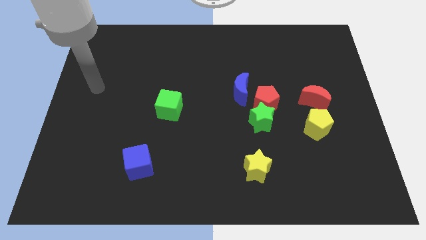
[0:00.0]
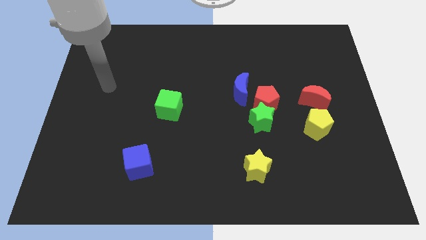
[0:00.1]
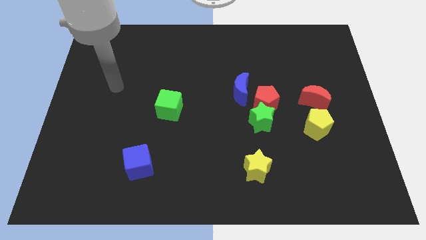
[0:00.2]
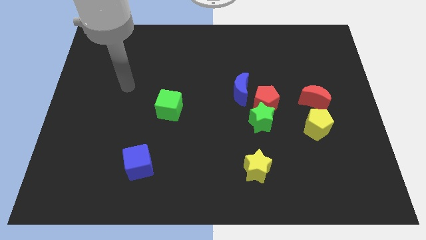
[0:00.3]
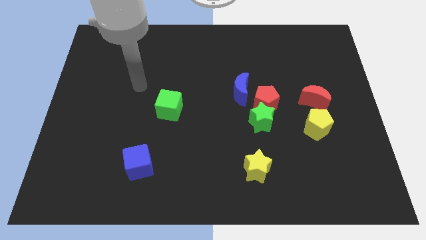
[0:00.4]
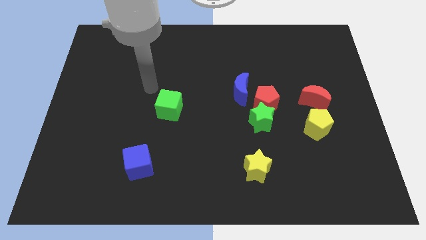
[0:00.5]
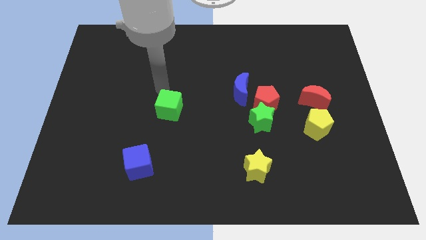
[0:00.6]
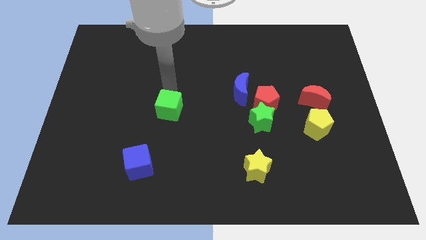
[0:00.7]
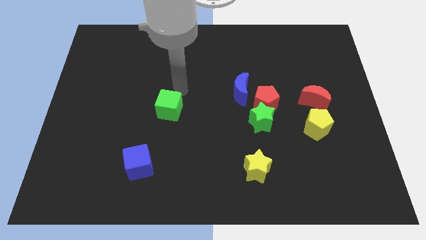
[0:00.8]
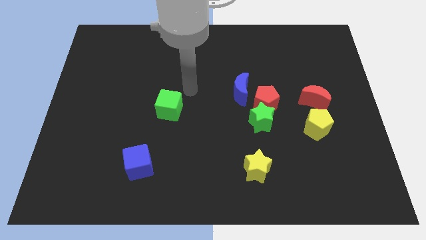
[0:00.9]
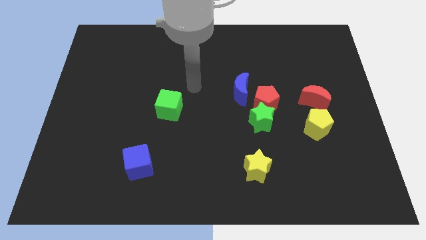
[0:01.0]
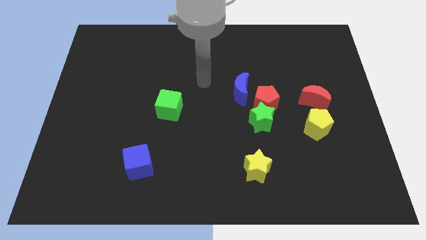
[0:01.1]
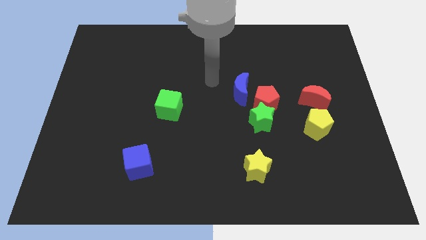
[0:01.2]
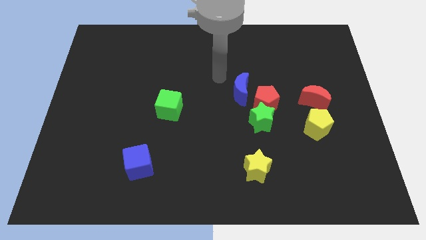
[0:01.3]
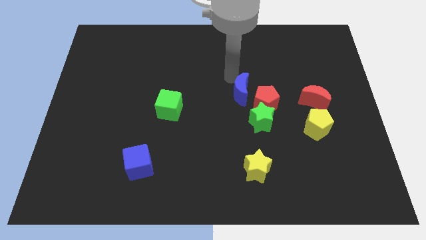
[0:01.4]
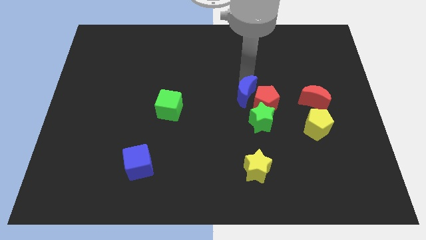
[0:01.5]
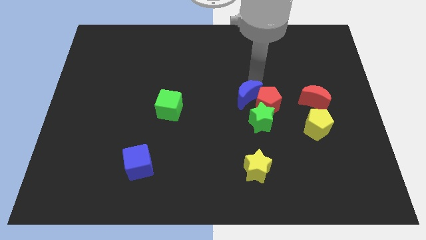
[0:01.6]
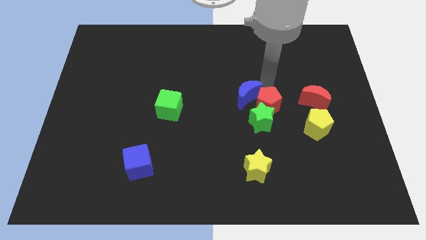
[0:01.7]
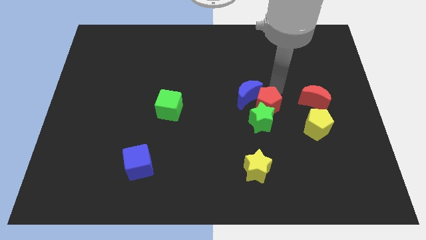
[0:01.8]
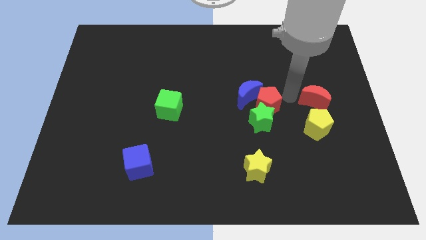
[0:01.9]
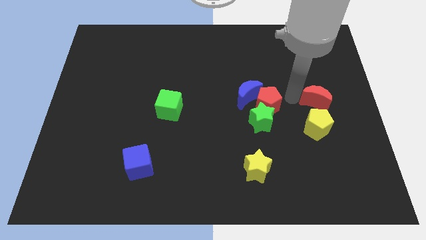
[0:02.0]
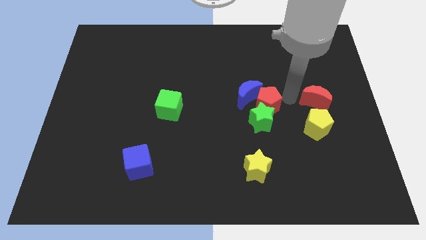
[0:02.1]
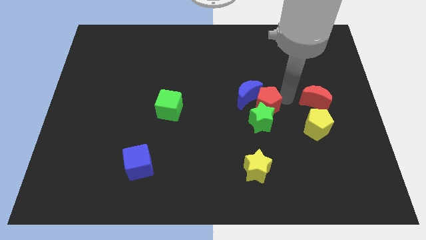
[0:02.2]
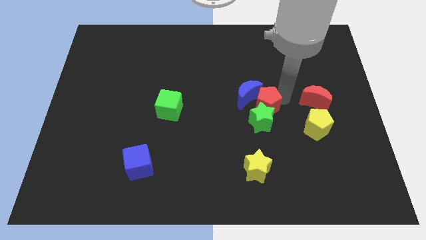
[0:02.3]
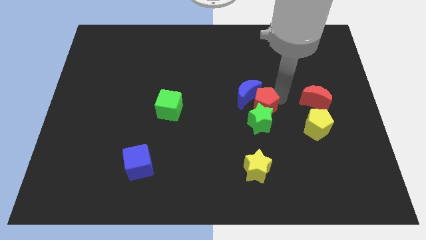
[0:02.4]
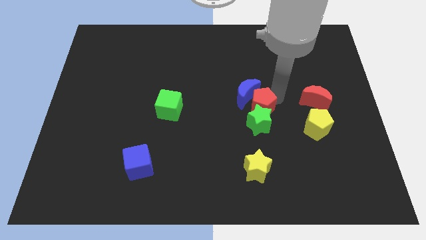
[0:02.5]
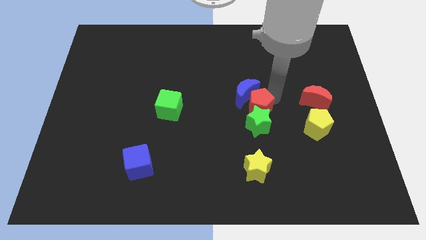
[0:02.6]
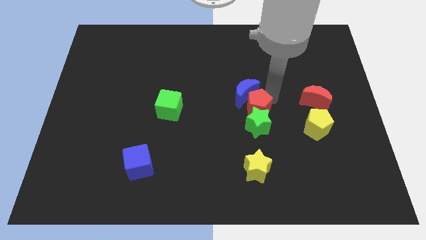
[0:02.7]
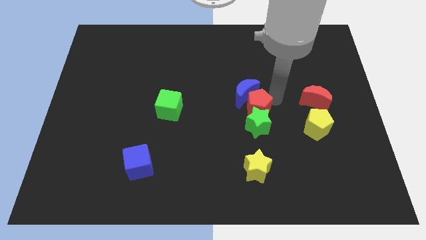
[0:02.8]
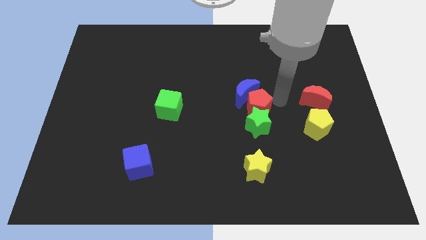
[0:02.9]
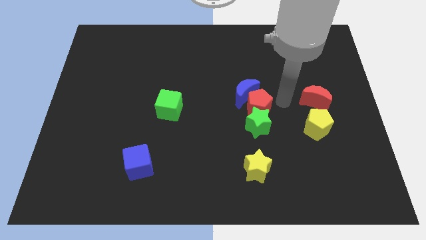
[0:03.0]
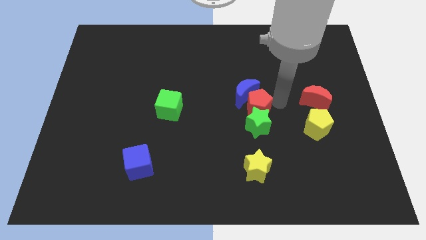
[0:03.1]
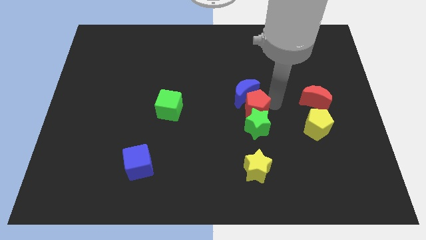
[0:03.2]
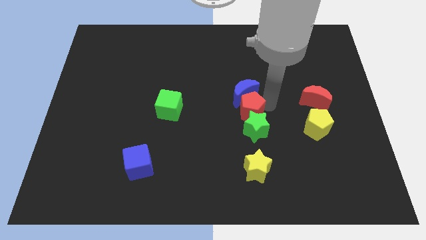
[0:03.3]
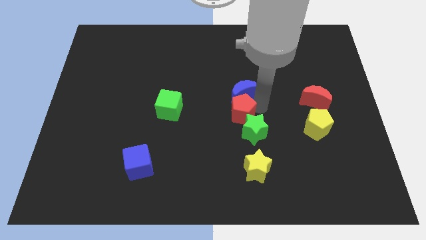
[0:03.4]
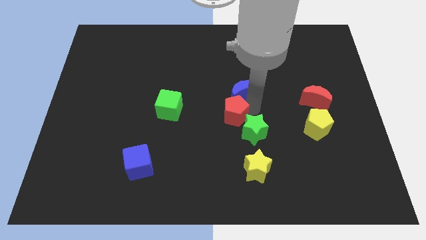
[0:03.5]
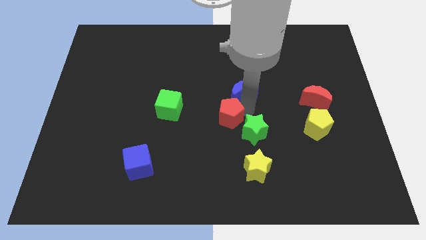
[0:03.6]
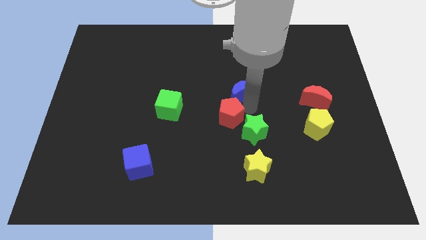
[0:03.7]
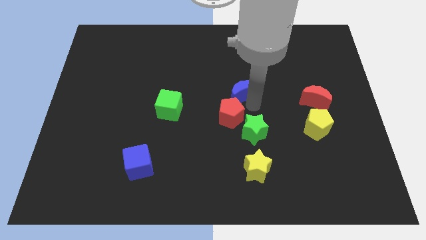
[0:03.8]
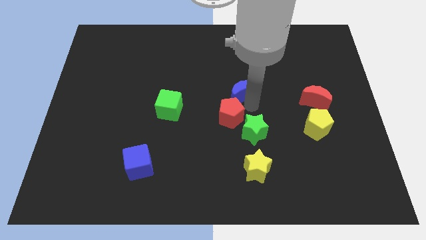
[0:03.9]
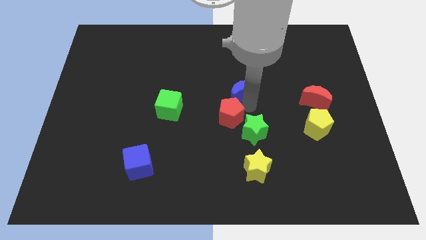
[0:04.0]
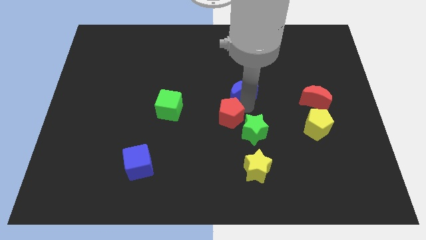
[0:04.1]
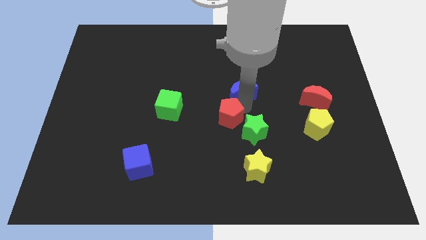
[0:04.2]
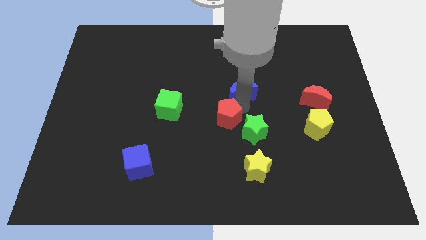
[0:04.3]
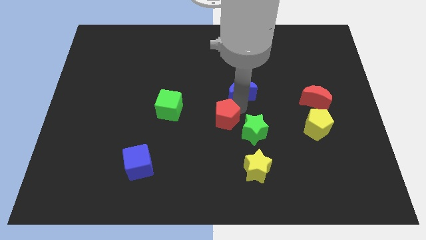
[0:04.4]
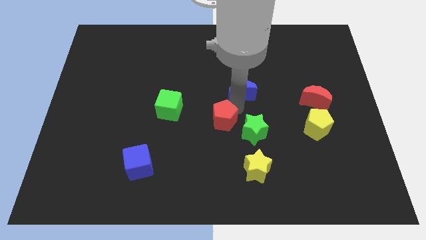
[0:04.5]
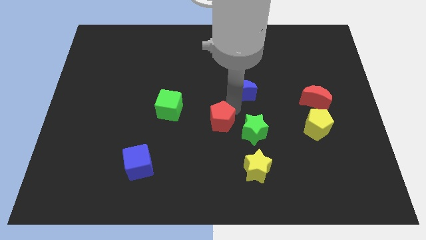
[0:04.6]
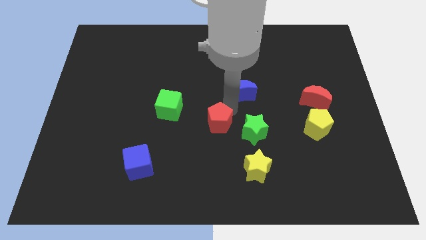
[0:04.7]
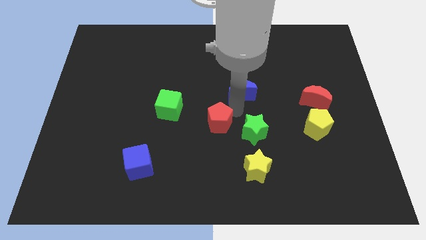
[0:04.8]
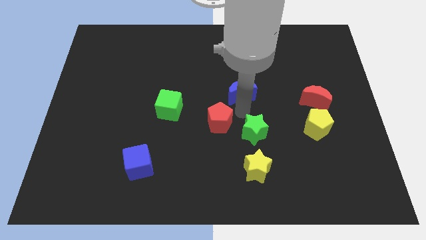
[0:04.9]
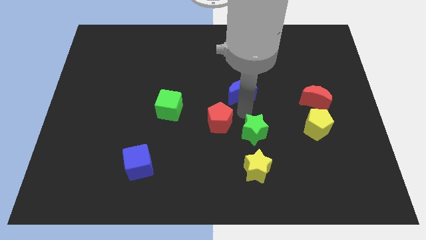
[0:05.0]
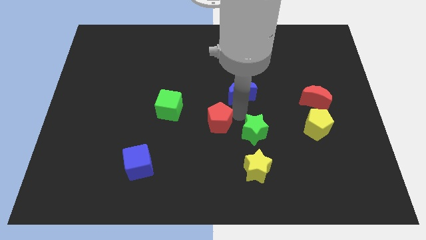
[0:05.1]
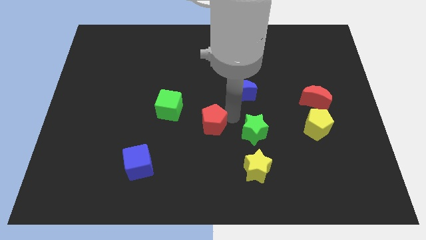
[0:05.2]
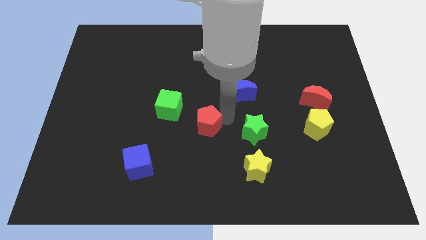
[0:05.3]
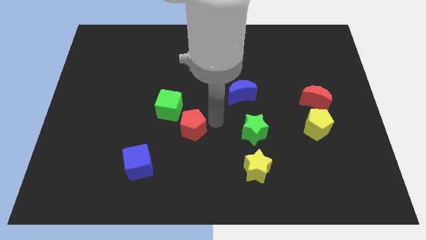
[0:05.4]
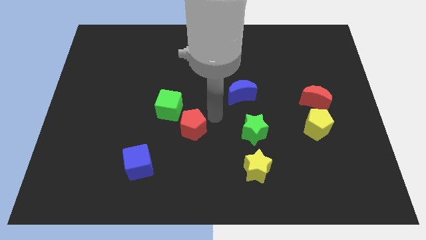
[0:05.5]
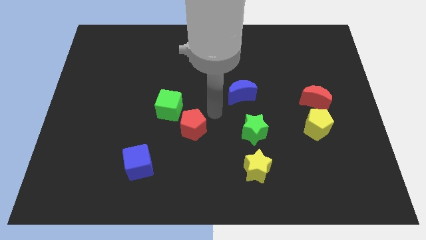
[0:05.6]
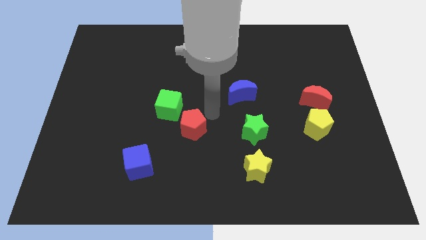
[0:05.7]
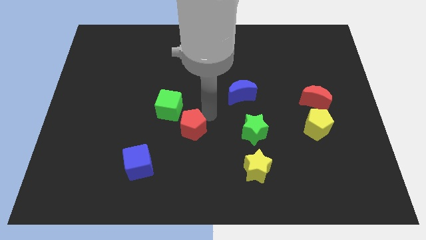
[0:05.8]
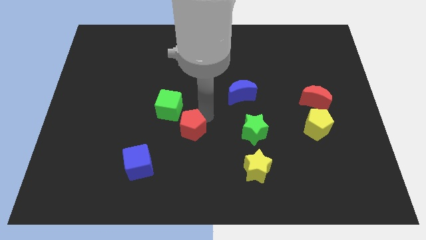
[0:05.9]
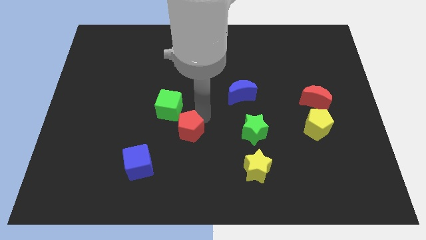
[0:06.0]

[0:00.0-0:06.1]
move the red pentagon to the bottom side of the green cube
